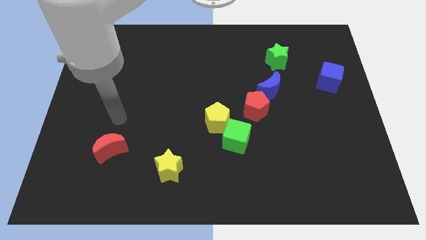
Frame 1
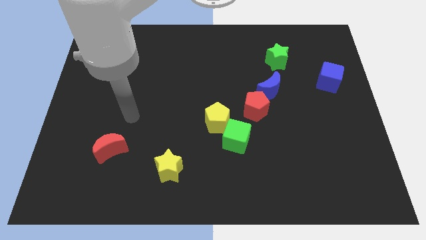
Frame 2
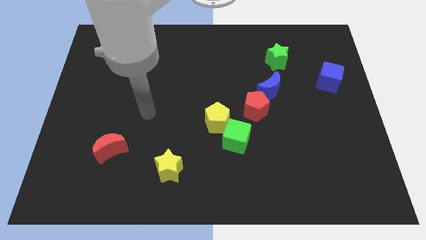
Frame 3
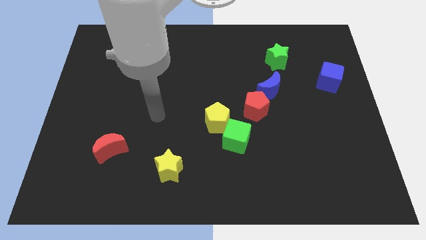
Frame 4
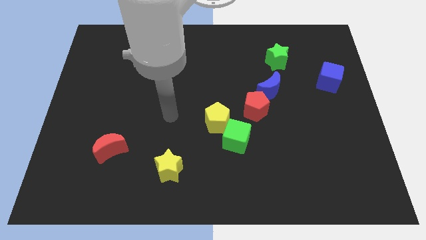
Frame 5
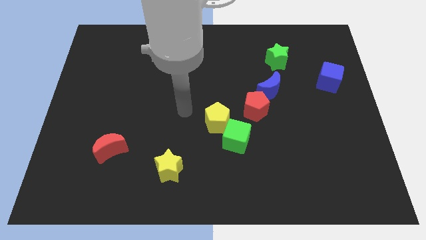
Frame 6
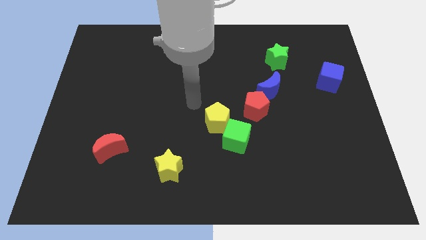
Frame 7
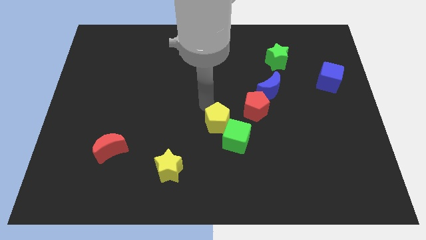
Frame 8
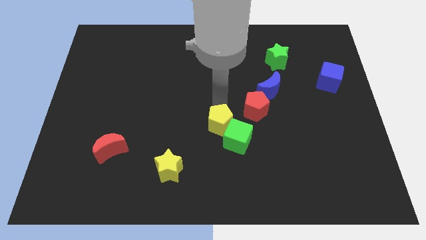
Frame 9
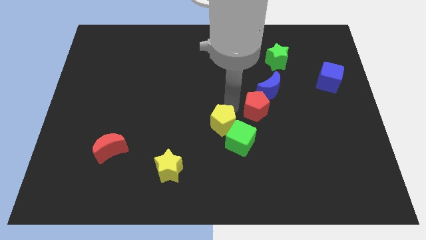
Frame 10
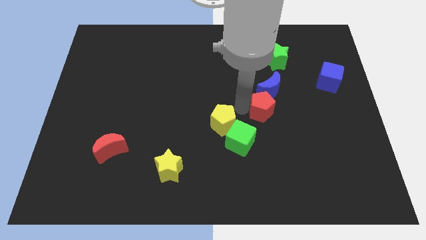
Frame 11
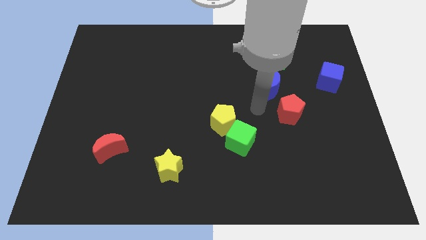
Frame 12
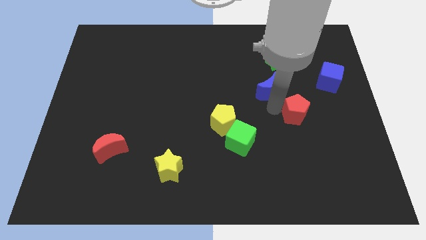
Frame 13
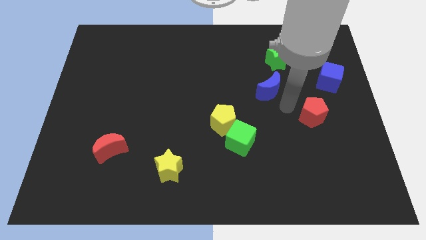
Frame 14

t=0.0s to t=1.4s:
separate the blue moon from the red pentagon

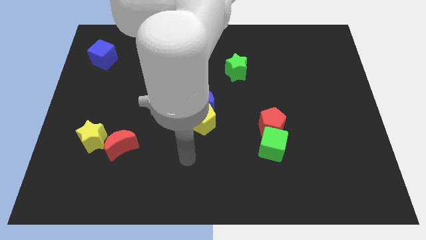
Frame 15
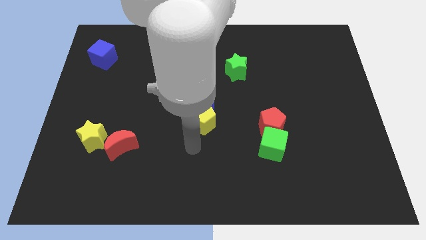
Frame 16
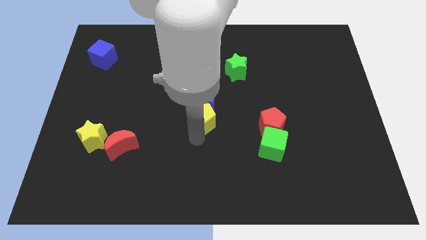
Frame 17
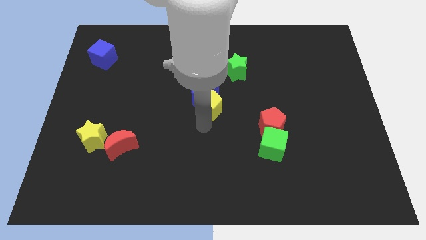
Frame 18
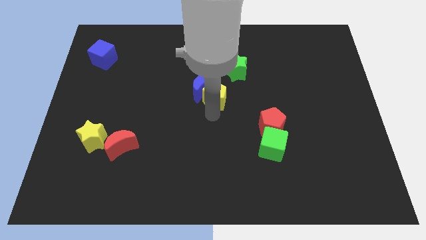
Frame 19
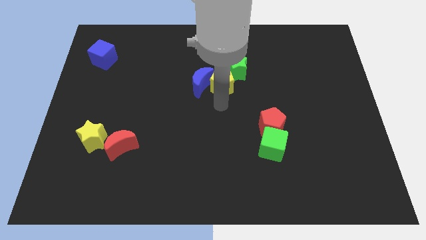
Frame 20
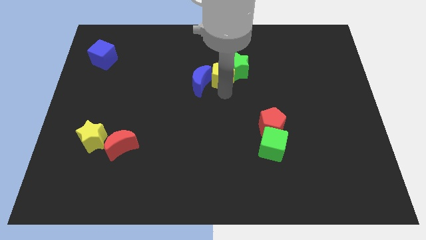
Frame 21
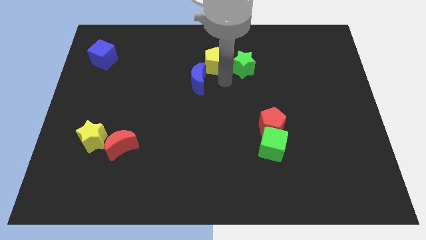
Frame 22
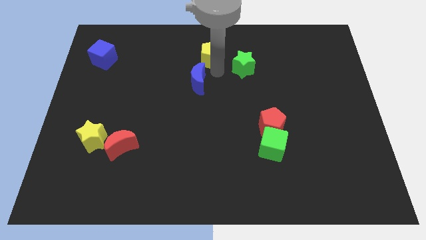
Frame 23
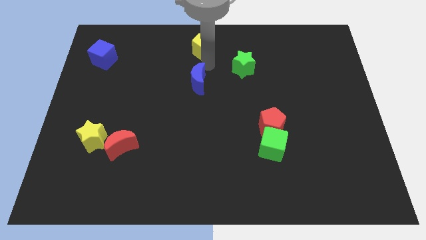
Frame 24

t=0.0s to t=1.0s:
pull the blue moon apart from the yellow pentagon

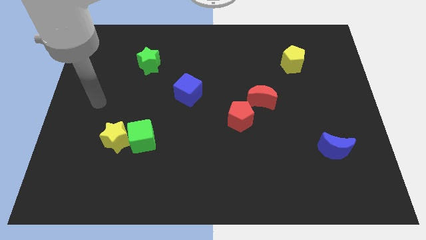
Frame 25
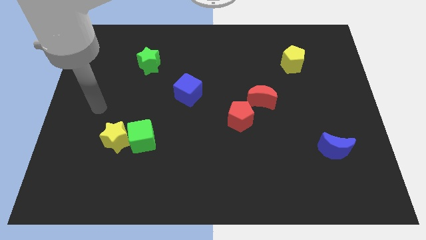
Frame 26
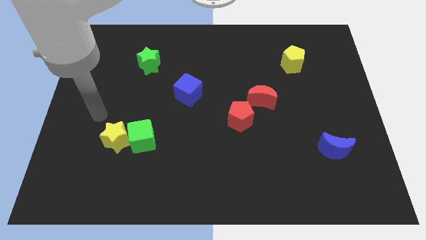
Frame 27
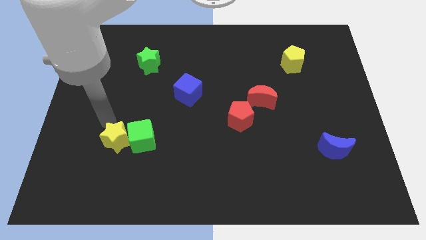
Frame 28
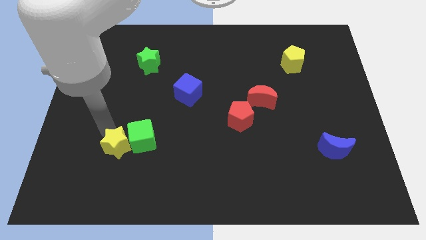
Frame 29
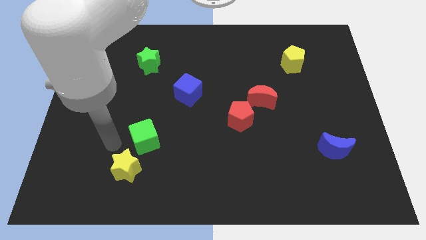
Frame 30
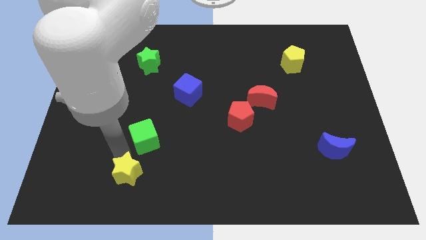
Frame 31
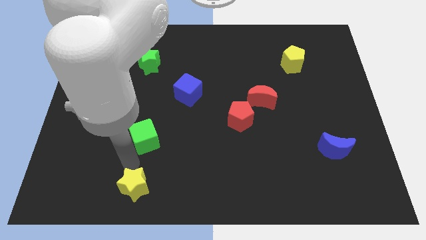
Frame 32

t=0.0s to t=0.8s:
move the green cube away from the yellow star

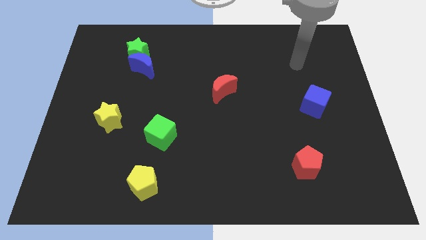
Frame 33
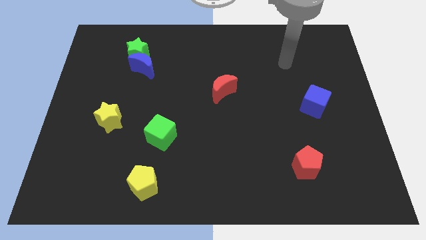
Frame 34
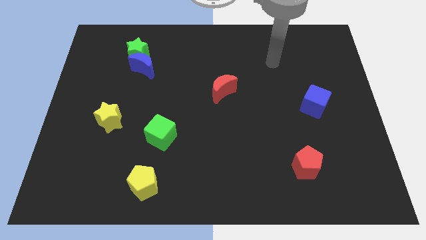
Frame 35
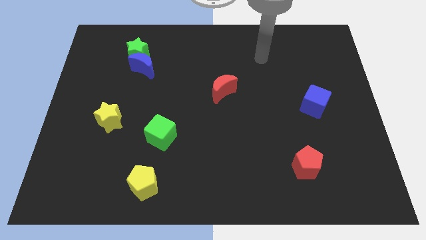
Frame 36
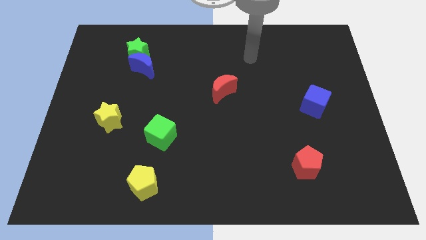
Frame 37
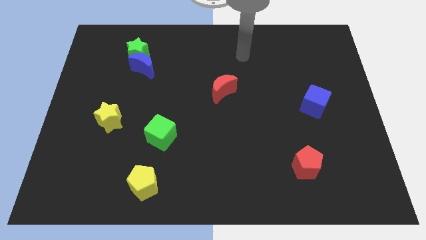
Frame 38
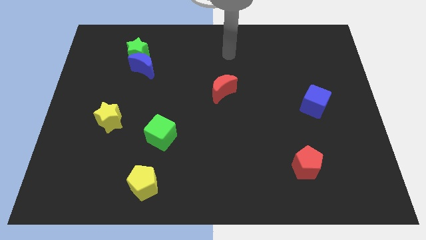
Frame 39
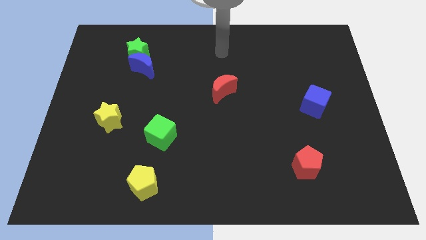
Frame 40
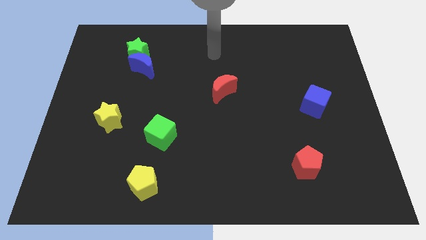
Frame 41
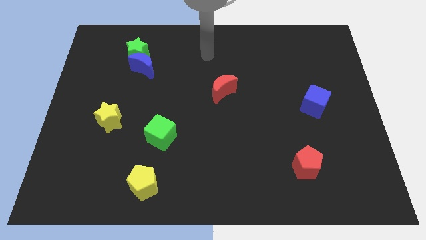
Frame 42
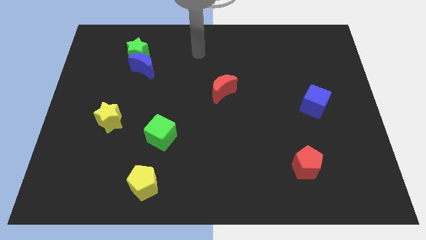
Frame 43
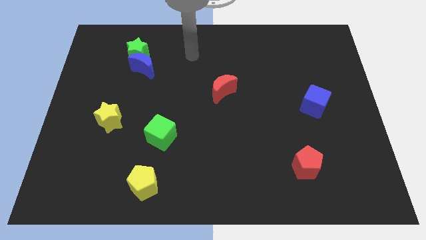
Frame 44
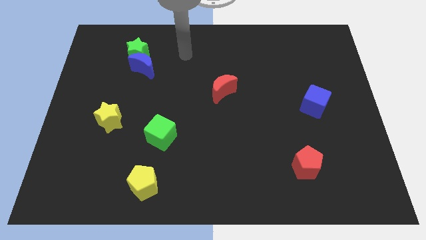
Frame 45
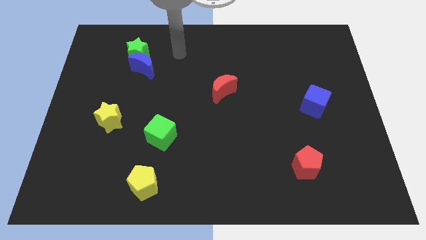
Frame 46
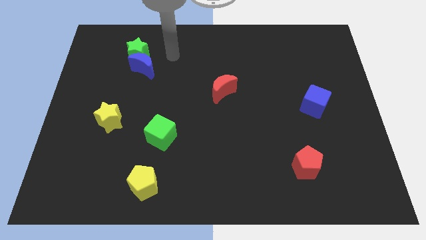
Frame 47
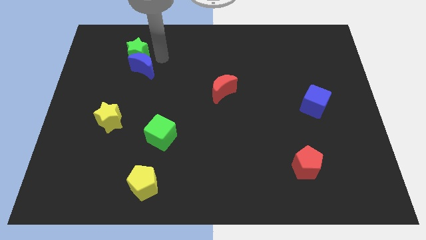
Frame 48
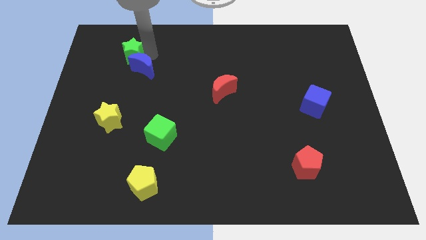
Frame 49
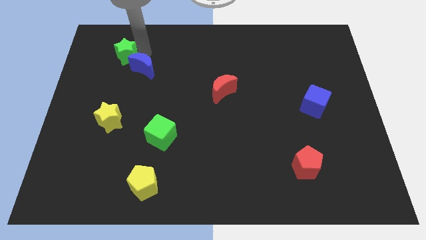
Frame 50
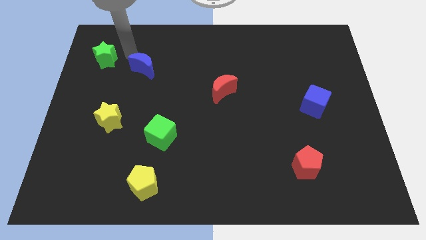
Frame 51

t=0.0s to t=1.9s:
pull the blue moon apart from the green star

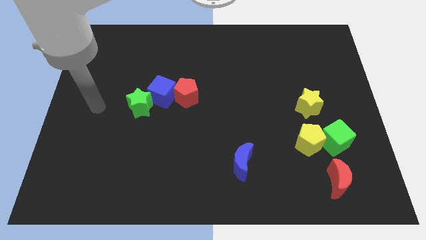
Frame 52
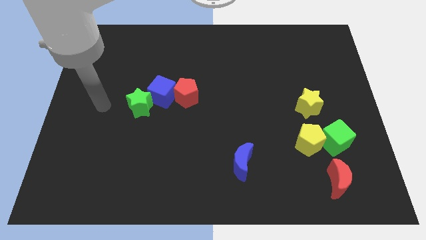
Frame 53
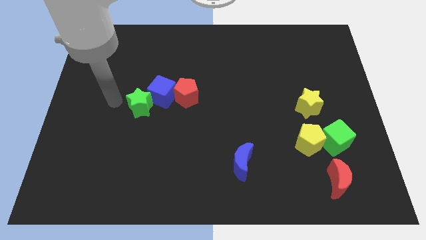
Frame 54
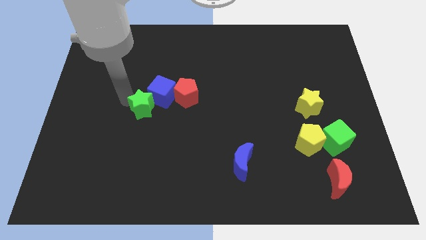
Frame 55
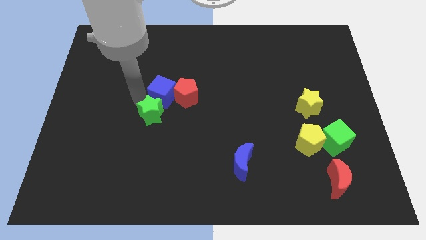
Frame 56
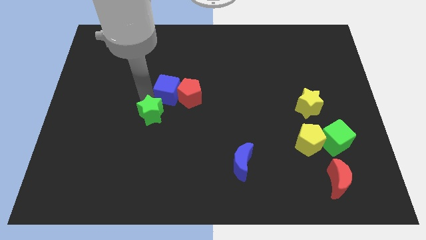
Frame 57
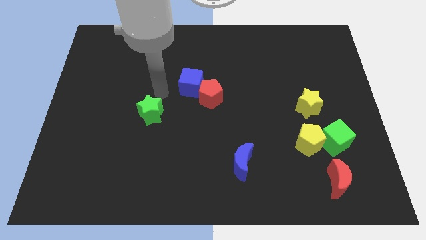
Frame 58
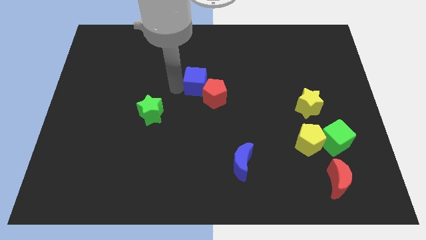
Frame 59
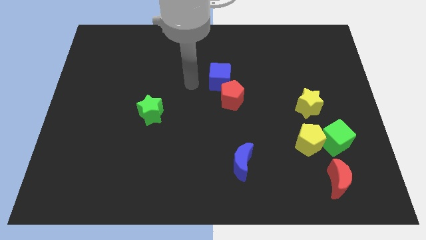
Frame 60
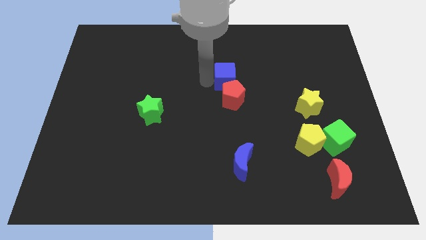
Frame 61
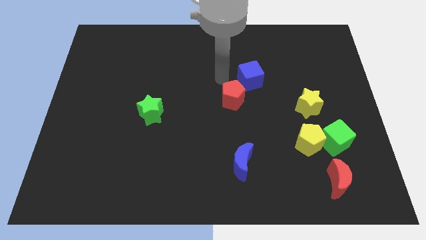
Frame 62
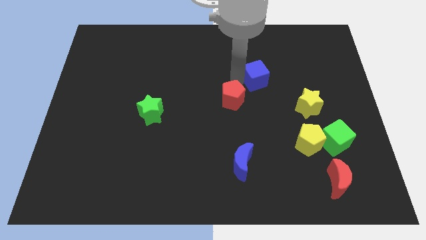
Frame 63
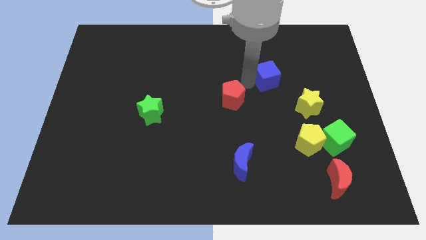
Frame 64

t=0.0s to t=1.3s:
separate the red pentagon from the blue cube

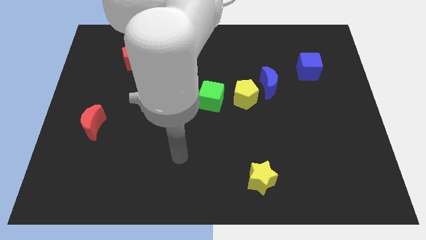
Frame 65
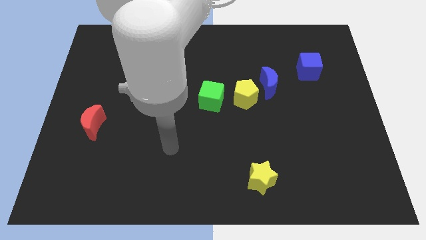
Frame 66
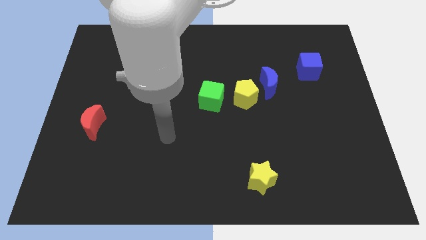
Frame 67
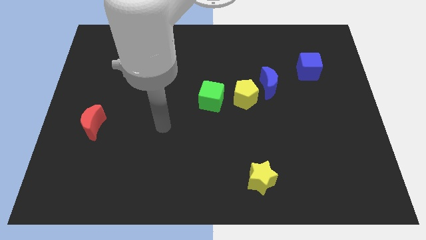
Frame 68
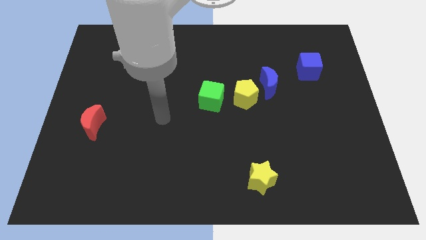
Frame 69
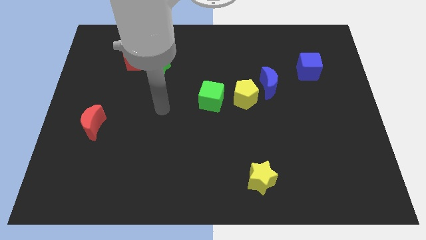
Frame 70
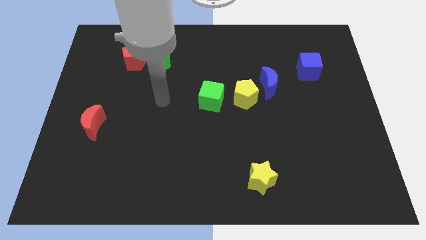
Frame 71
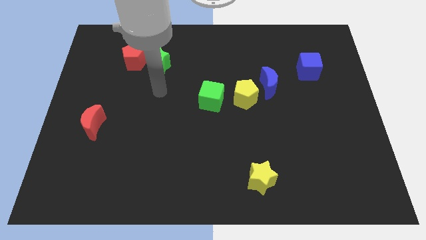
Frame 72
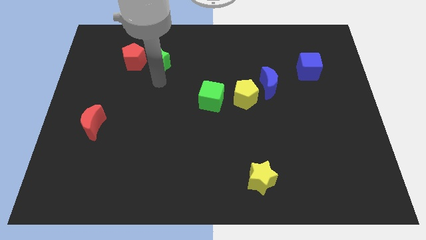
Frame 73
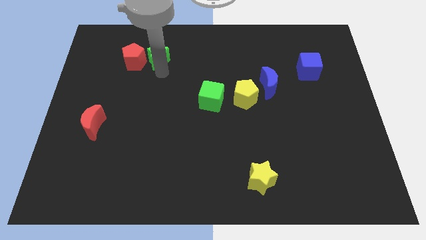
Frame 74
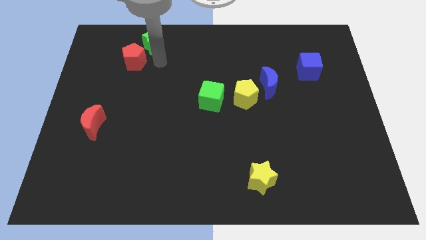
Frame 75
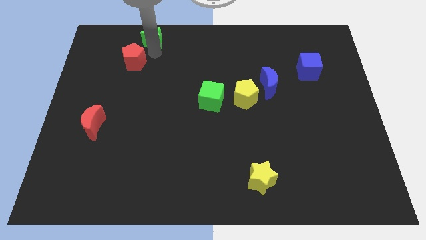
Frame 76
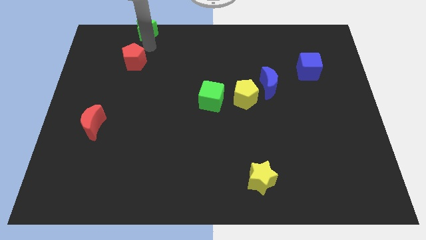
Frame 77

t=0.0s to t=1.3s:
move the red pentagon away from the green star

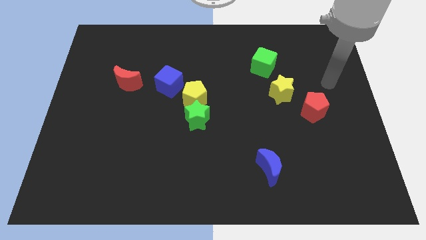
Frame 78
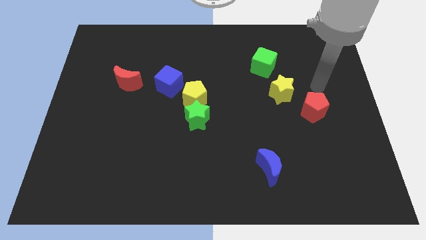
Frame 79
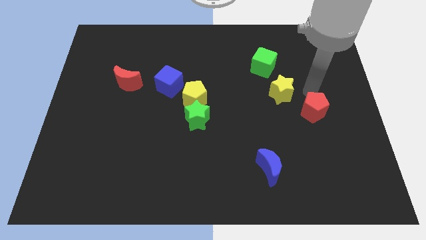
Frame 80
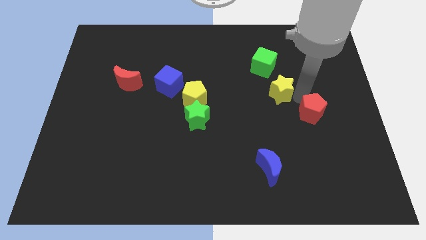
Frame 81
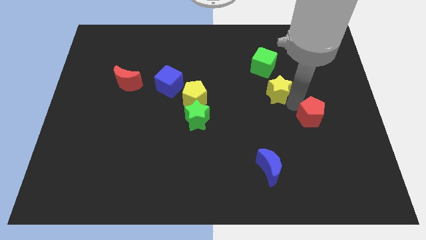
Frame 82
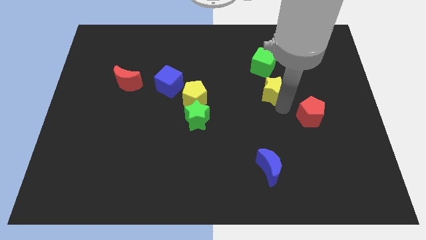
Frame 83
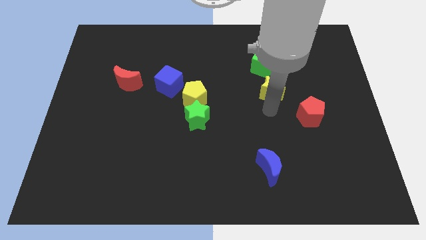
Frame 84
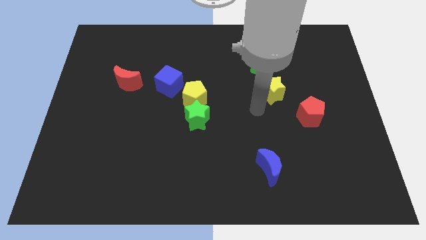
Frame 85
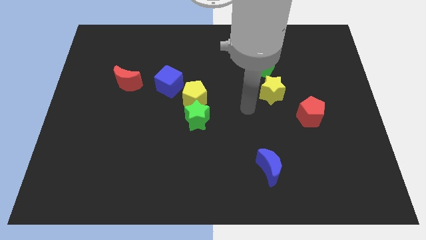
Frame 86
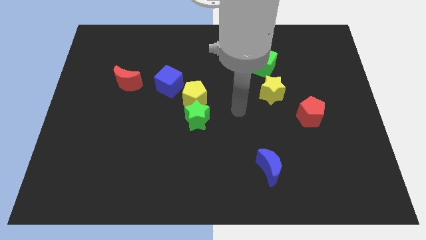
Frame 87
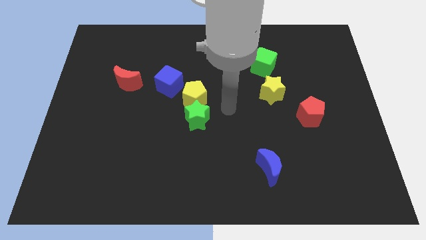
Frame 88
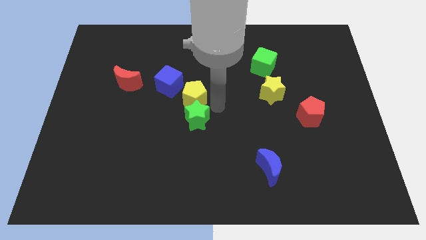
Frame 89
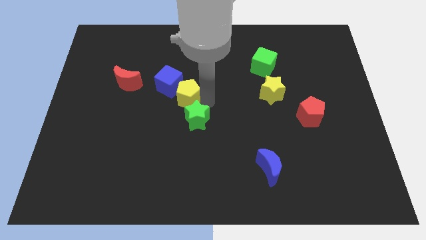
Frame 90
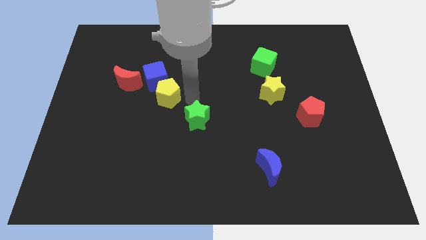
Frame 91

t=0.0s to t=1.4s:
pull the green star apart from the yellow pentagon

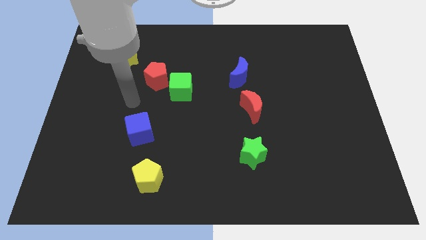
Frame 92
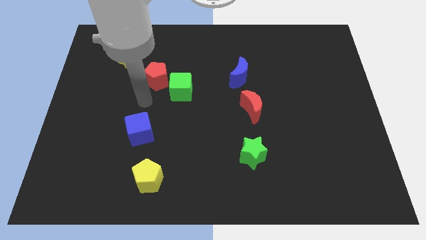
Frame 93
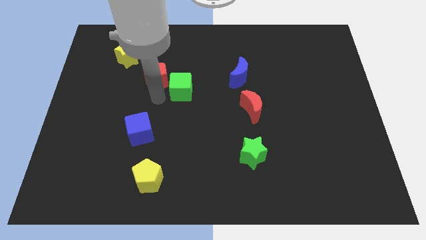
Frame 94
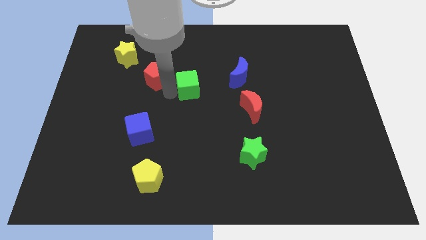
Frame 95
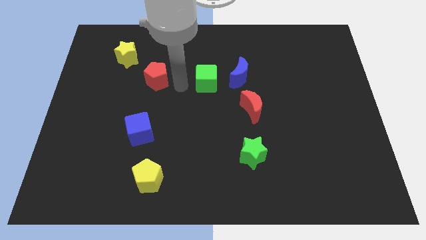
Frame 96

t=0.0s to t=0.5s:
separate the red pentagon from the green cube
